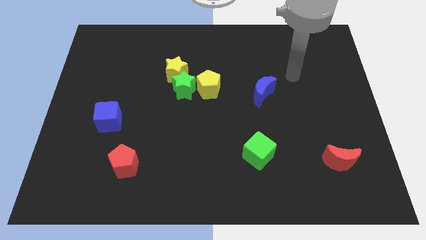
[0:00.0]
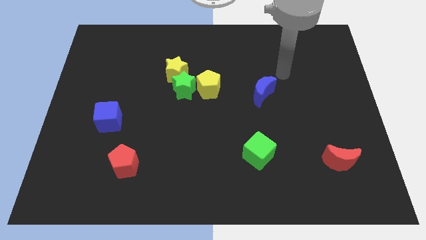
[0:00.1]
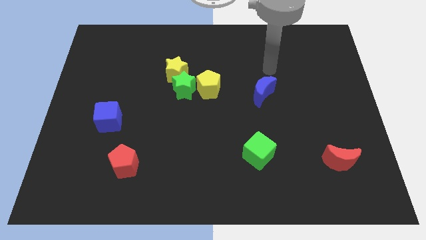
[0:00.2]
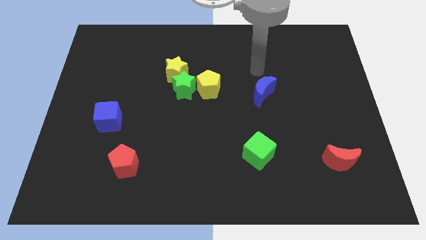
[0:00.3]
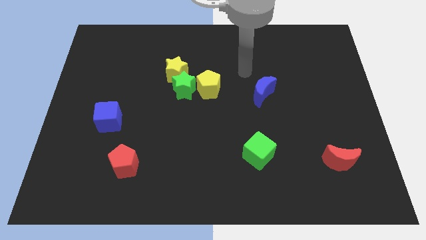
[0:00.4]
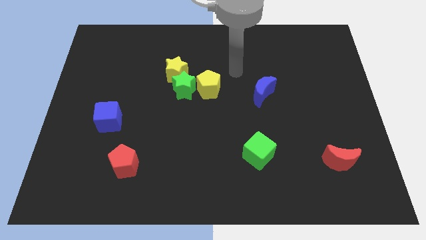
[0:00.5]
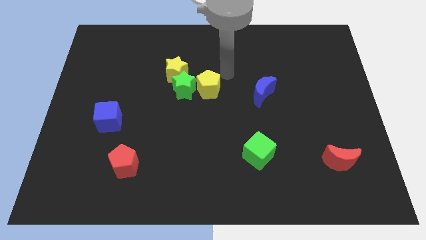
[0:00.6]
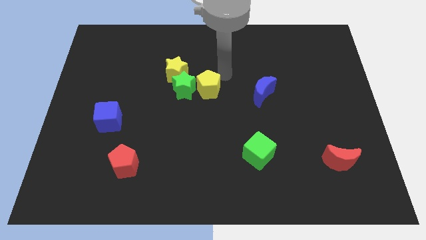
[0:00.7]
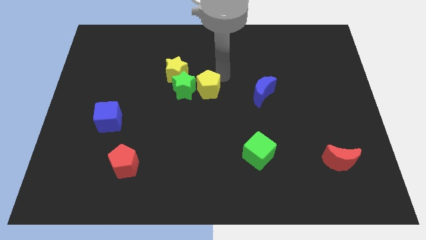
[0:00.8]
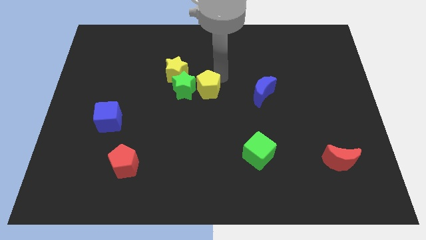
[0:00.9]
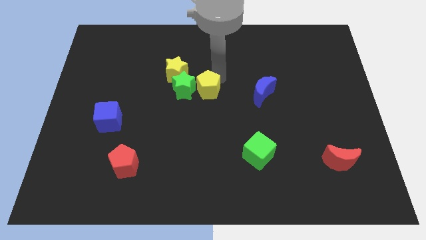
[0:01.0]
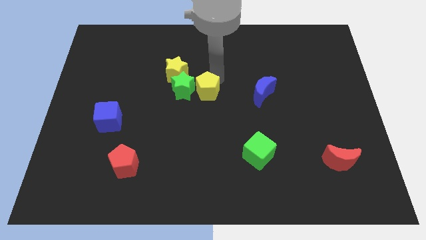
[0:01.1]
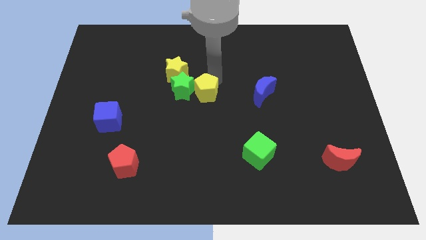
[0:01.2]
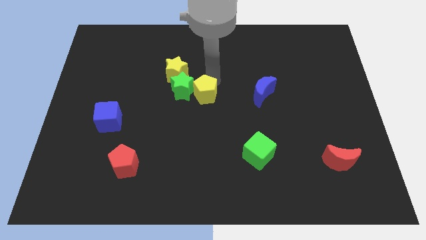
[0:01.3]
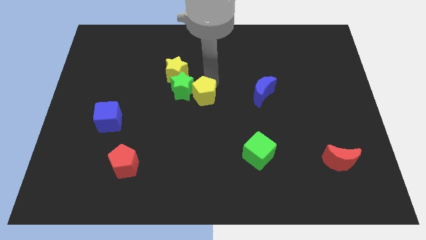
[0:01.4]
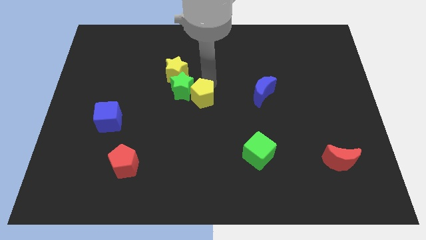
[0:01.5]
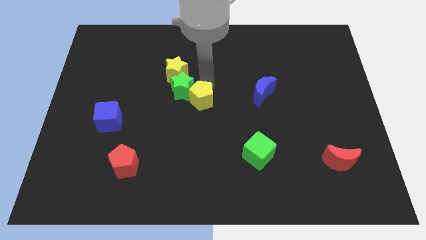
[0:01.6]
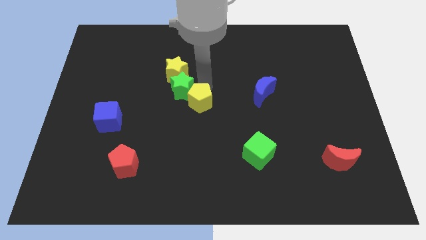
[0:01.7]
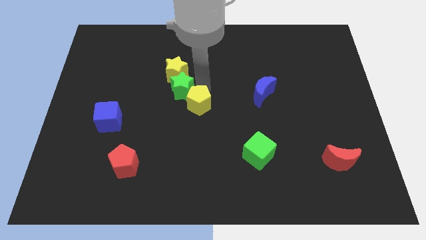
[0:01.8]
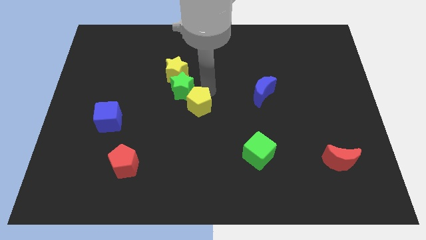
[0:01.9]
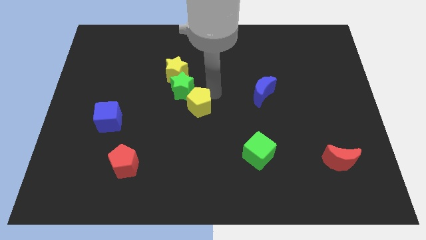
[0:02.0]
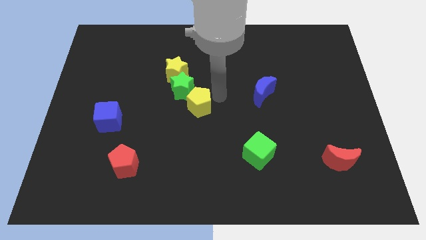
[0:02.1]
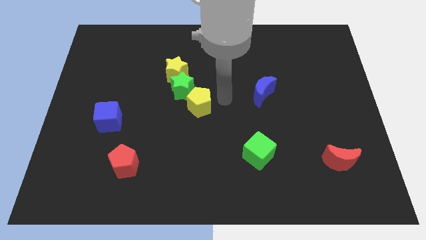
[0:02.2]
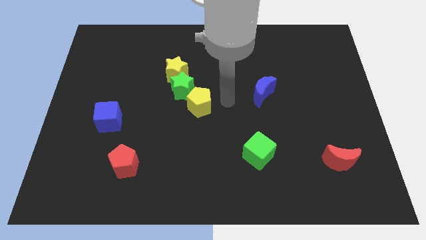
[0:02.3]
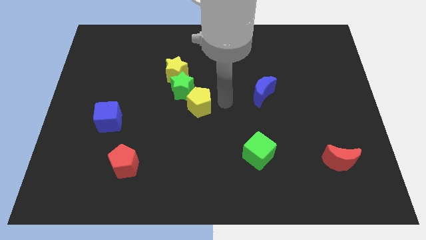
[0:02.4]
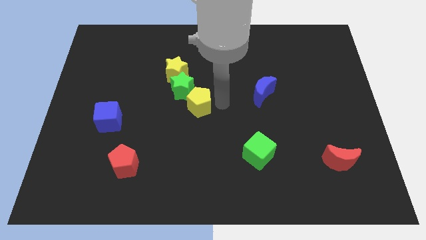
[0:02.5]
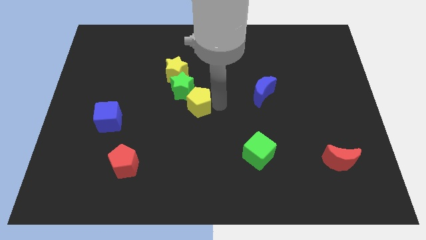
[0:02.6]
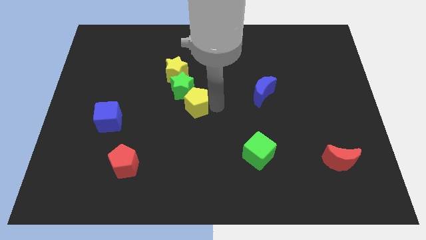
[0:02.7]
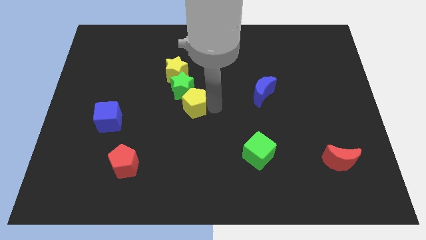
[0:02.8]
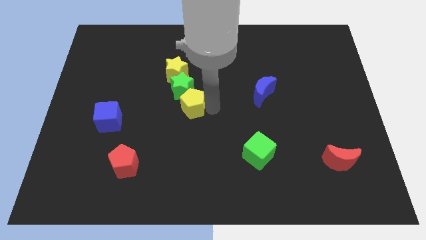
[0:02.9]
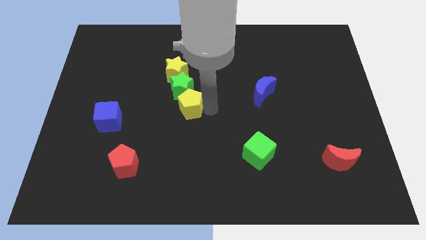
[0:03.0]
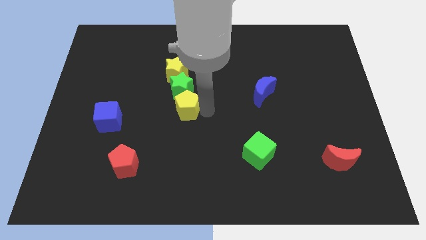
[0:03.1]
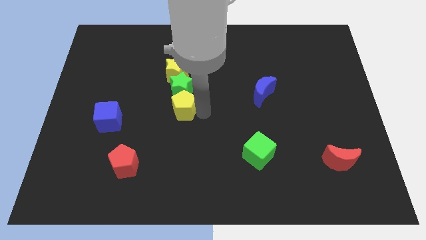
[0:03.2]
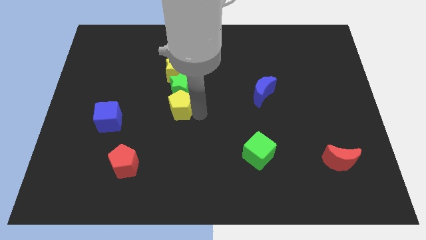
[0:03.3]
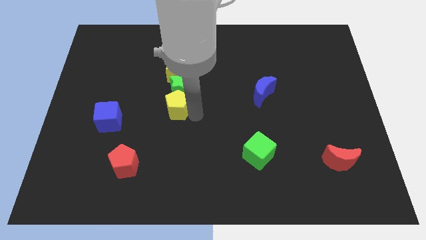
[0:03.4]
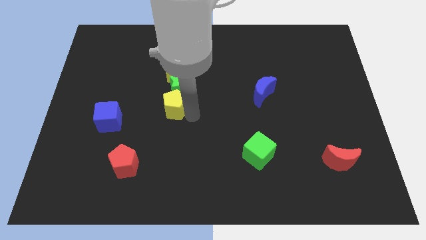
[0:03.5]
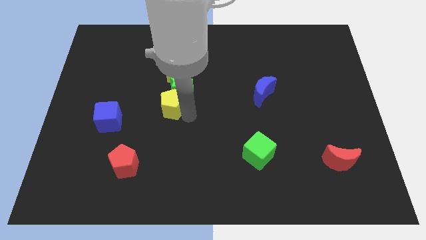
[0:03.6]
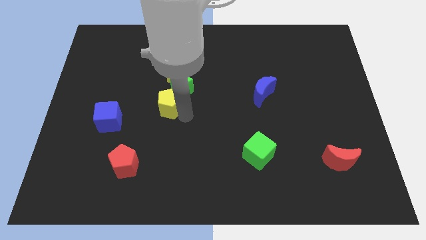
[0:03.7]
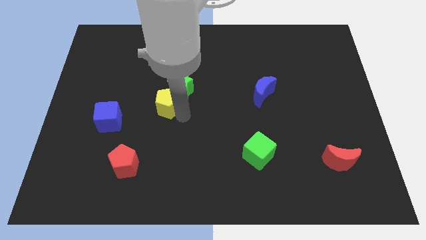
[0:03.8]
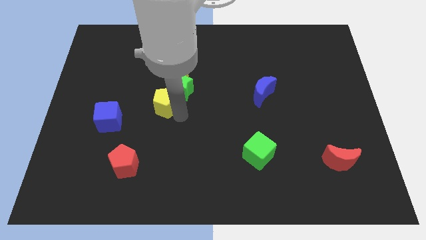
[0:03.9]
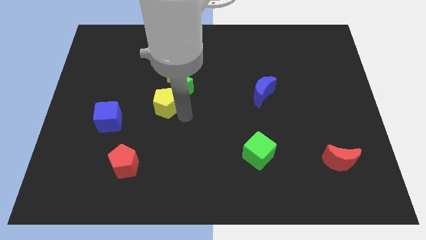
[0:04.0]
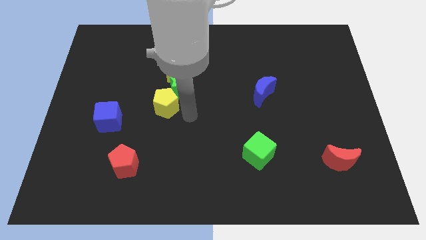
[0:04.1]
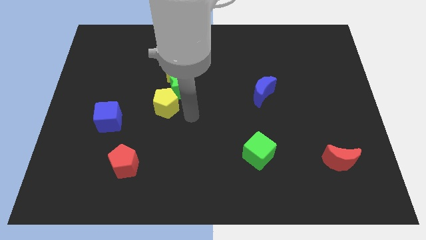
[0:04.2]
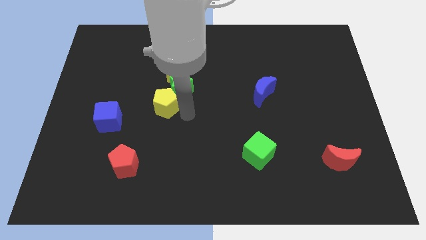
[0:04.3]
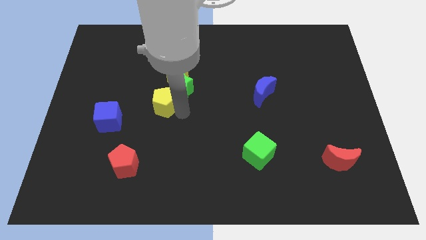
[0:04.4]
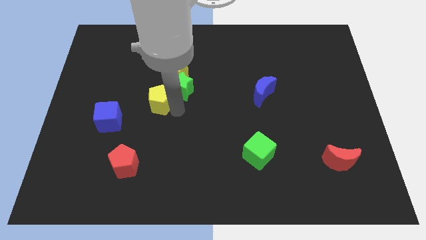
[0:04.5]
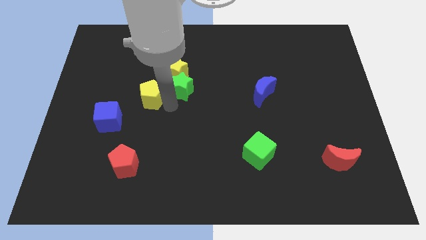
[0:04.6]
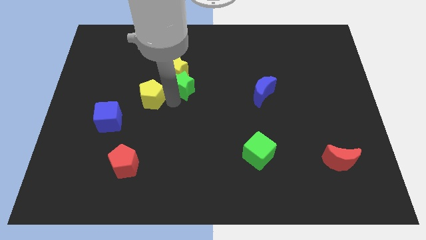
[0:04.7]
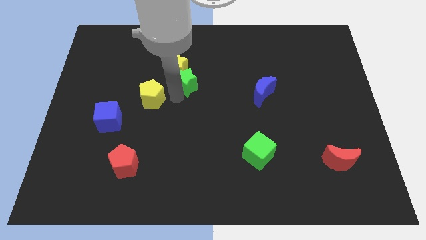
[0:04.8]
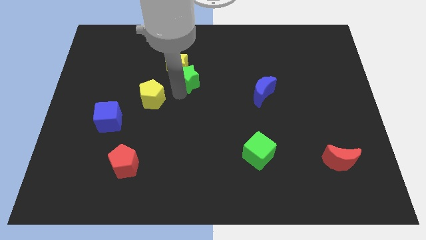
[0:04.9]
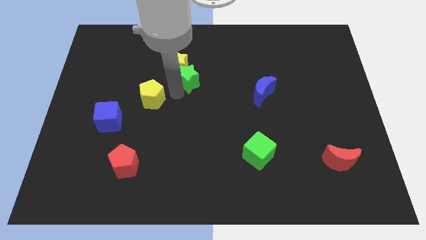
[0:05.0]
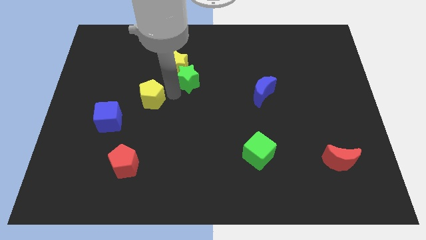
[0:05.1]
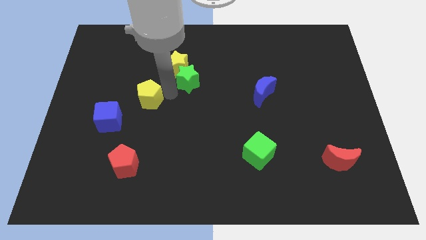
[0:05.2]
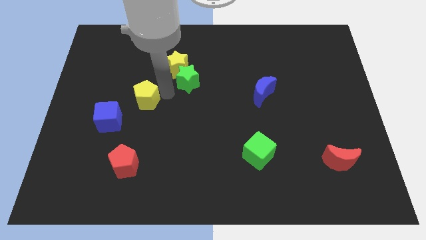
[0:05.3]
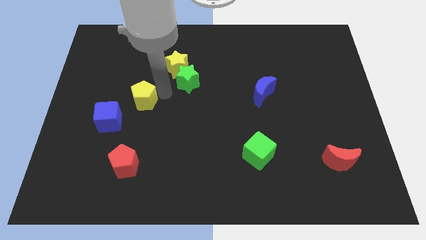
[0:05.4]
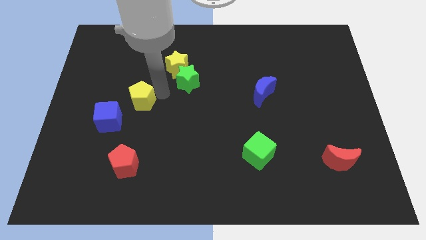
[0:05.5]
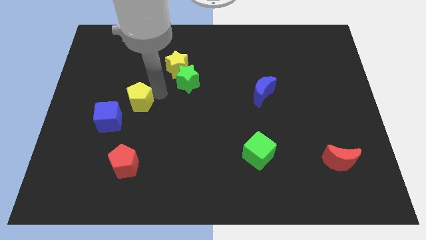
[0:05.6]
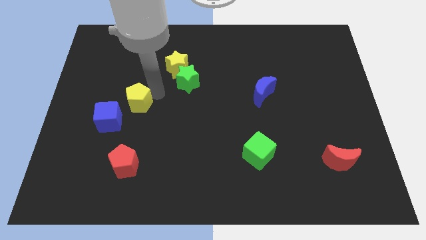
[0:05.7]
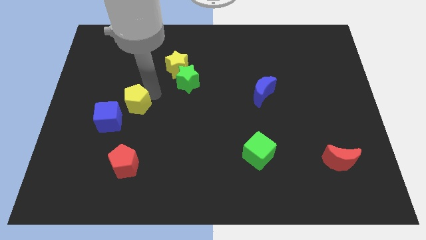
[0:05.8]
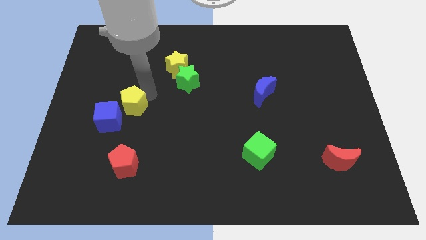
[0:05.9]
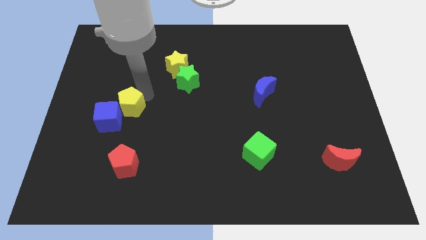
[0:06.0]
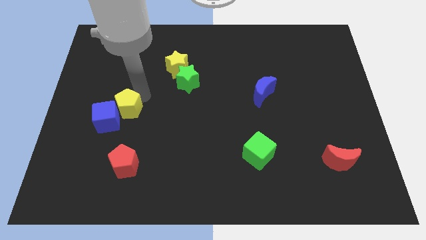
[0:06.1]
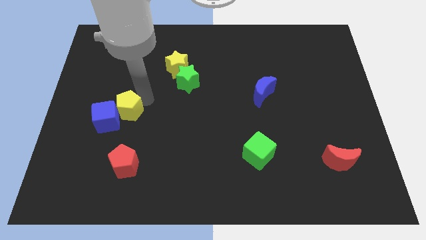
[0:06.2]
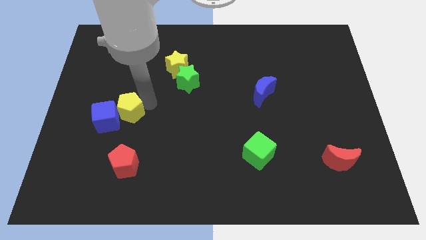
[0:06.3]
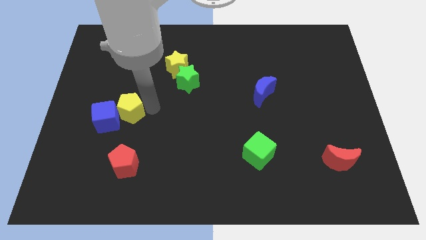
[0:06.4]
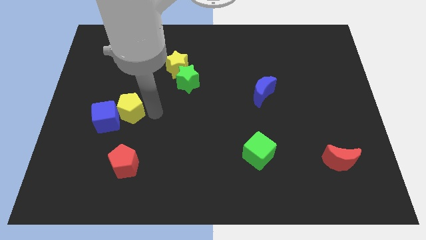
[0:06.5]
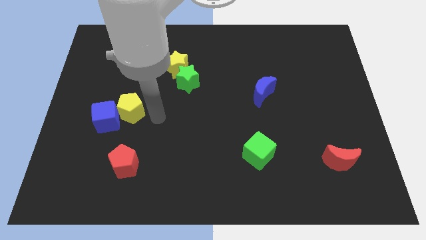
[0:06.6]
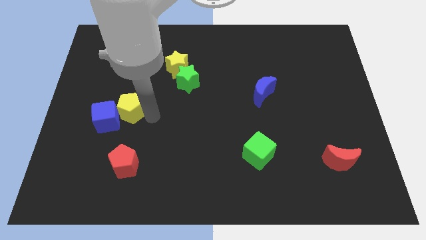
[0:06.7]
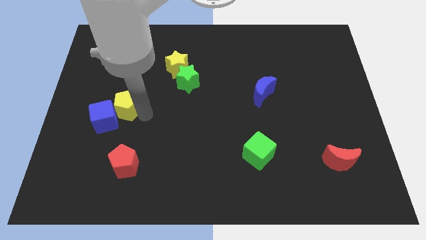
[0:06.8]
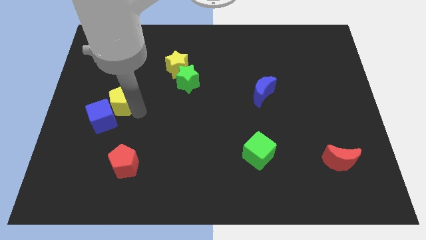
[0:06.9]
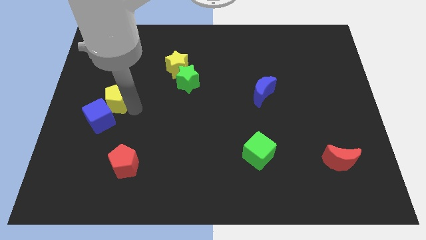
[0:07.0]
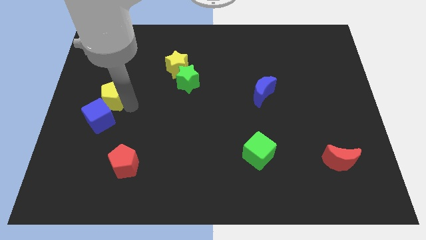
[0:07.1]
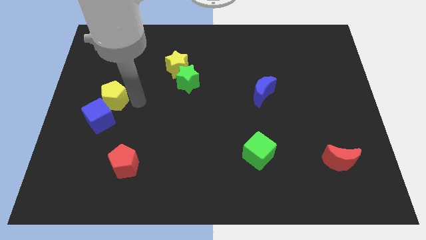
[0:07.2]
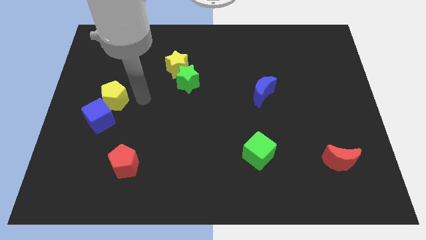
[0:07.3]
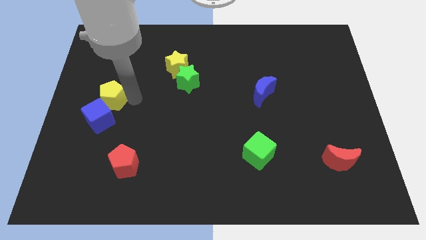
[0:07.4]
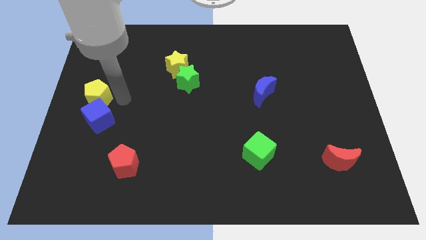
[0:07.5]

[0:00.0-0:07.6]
push the yellow pentagon to the center left
